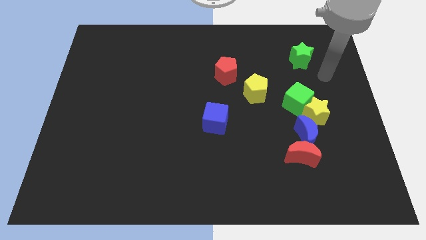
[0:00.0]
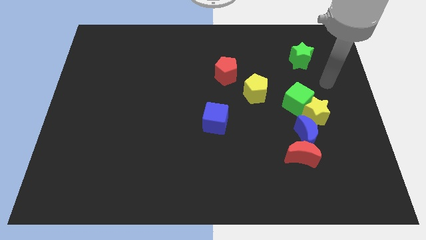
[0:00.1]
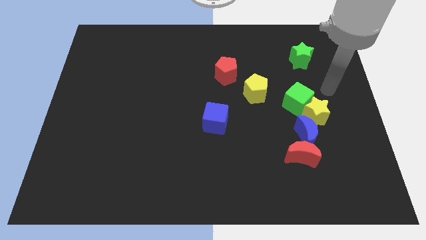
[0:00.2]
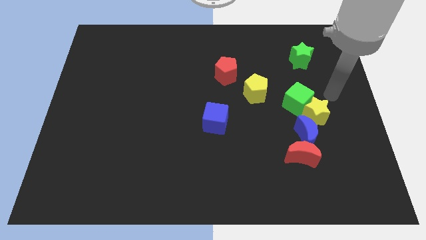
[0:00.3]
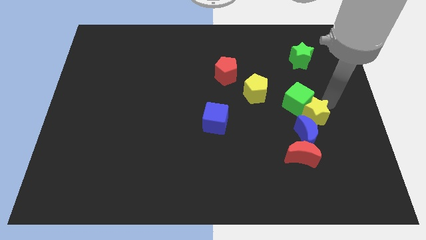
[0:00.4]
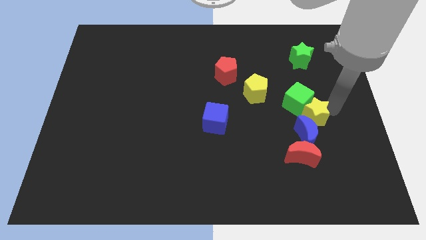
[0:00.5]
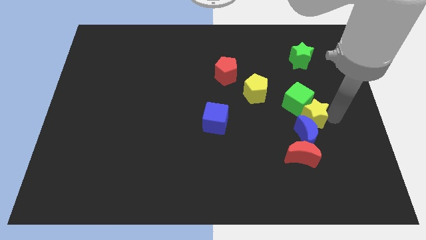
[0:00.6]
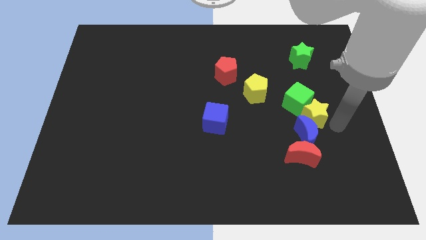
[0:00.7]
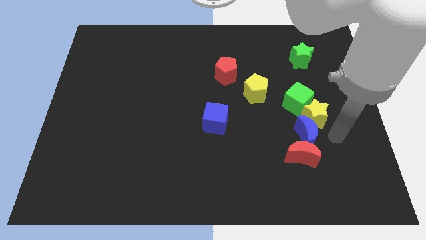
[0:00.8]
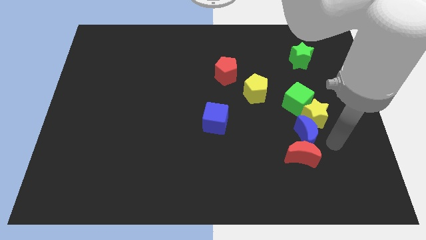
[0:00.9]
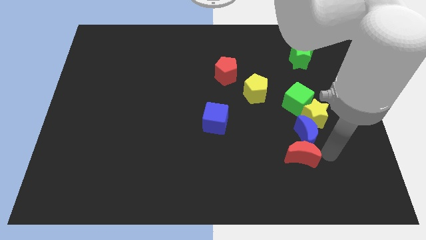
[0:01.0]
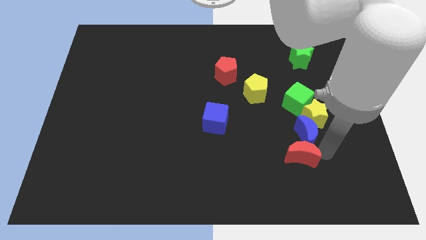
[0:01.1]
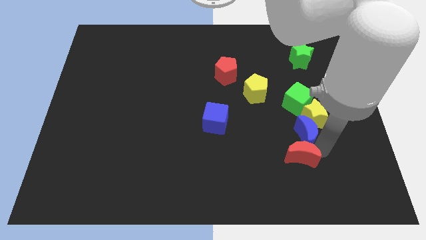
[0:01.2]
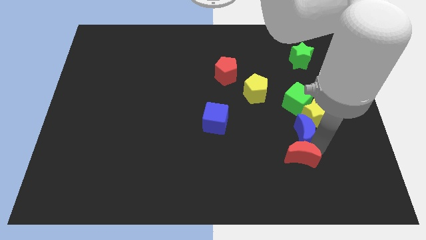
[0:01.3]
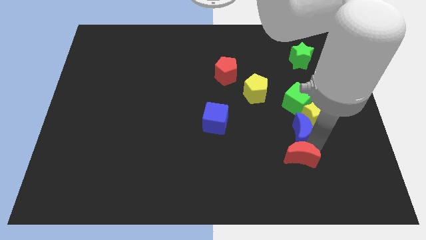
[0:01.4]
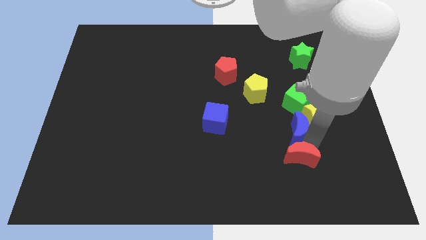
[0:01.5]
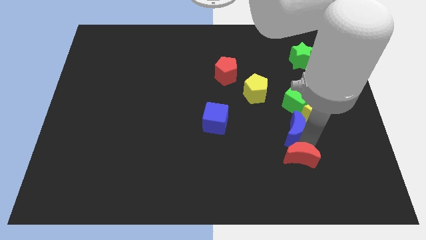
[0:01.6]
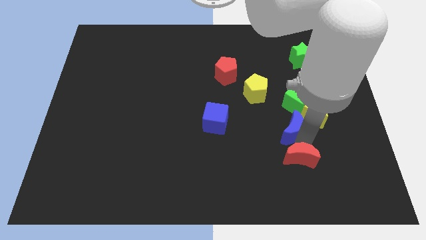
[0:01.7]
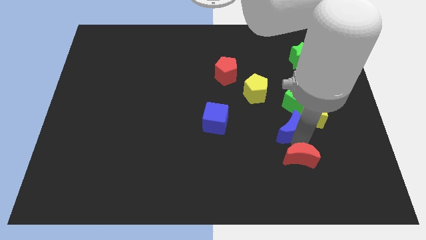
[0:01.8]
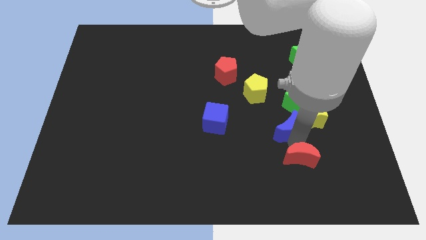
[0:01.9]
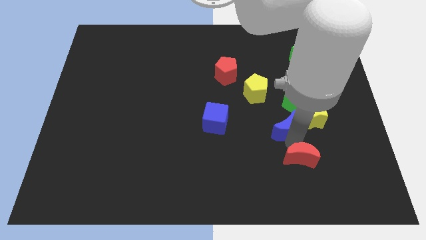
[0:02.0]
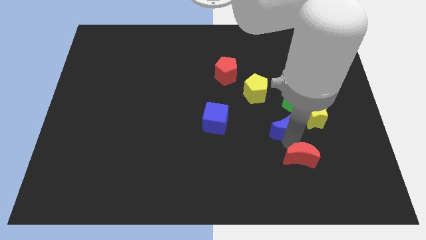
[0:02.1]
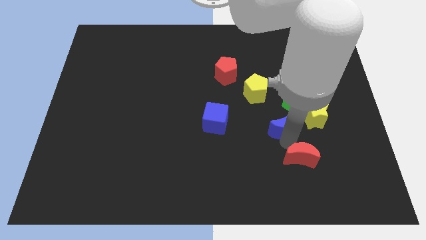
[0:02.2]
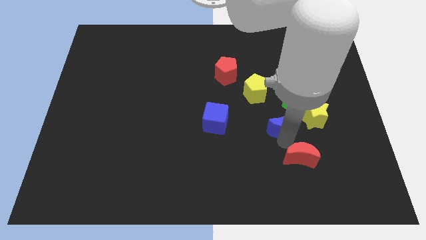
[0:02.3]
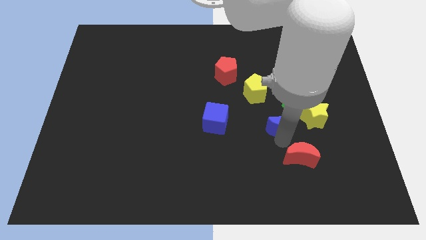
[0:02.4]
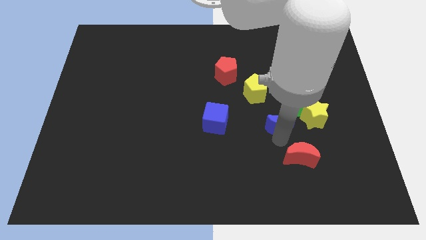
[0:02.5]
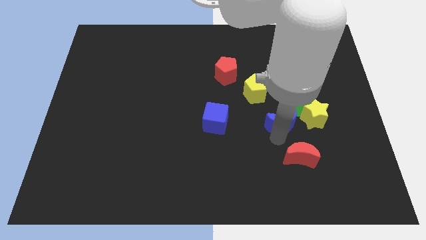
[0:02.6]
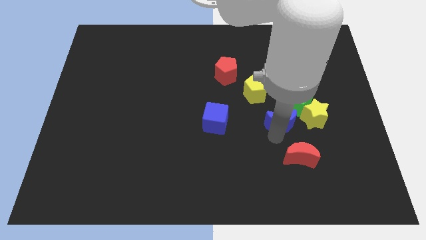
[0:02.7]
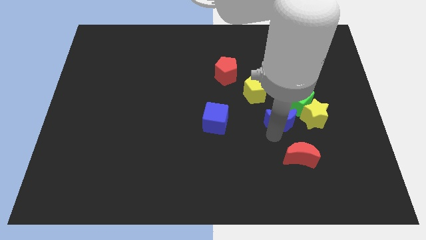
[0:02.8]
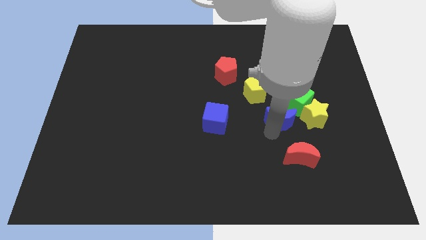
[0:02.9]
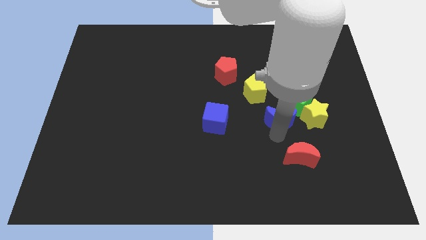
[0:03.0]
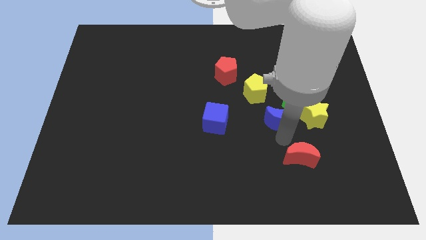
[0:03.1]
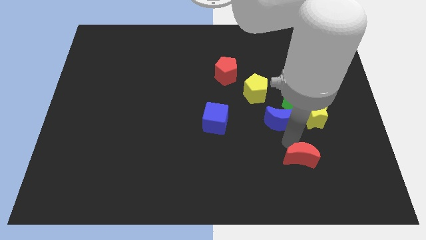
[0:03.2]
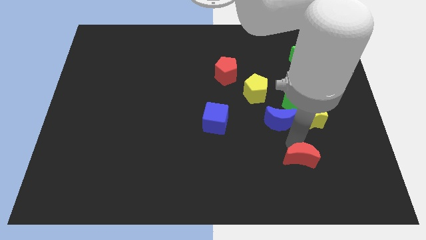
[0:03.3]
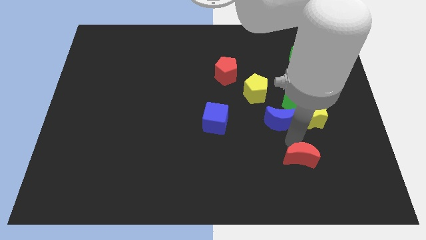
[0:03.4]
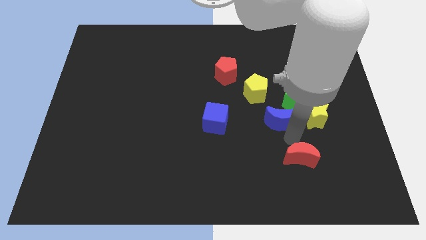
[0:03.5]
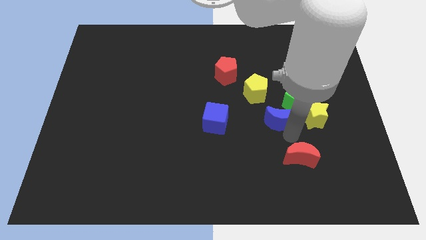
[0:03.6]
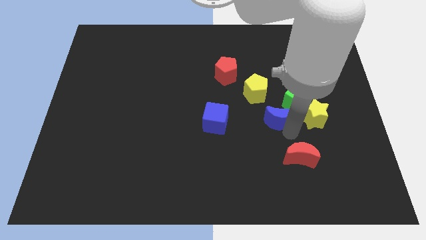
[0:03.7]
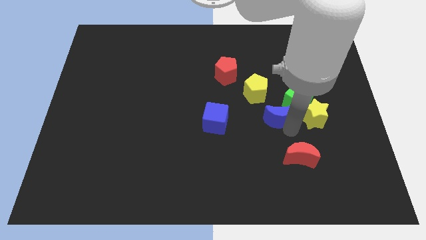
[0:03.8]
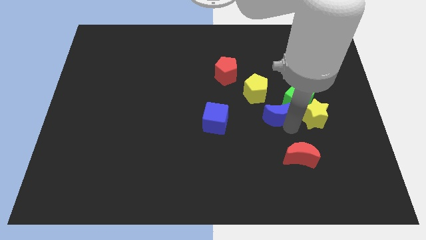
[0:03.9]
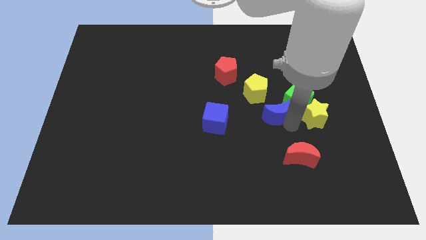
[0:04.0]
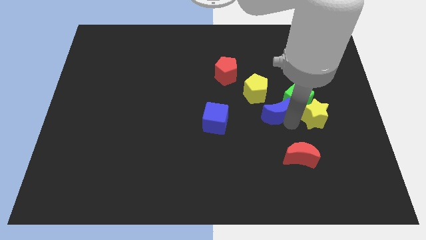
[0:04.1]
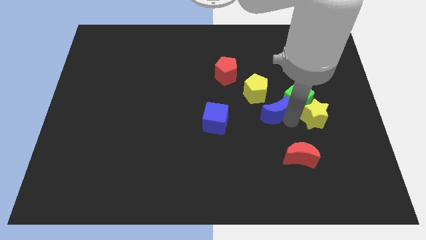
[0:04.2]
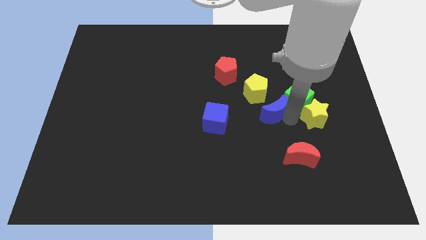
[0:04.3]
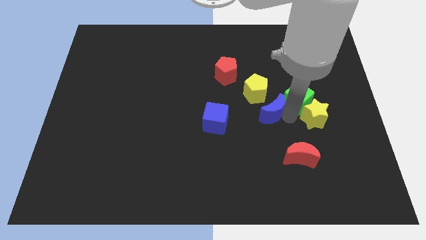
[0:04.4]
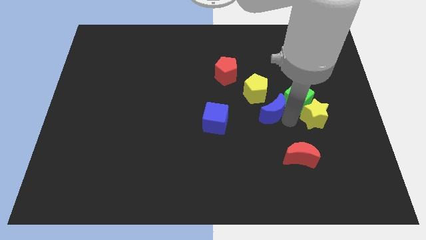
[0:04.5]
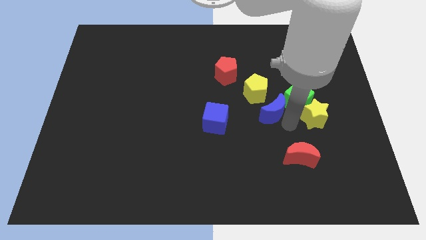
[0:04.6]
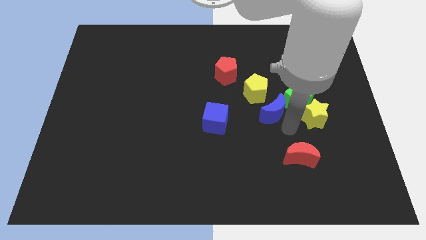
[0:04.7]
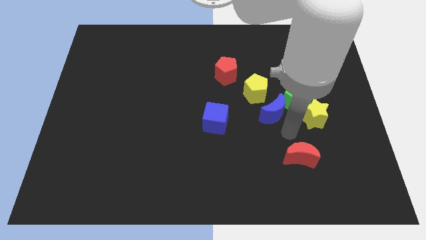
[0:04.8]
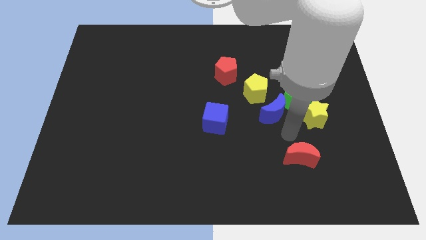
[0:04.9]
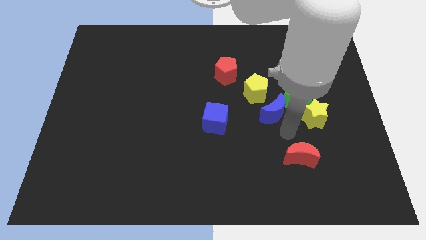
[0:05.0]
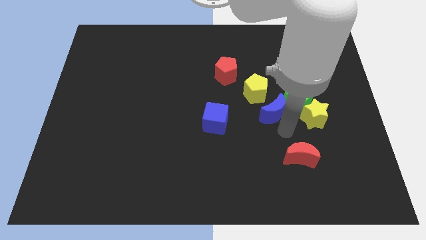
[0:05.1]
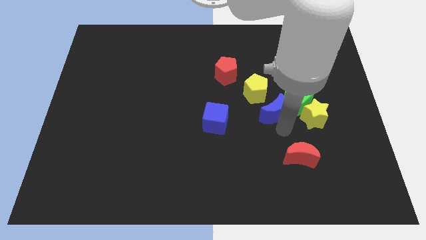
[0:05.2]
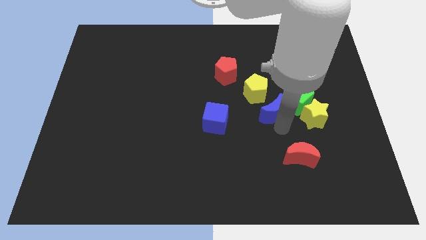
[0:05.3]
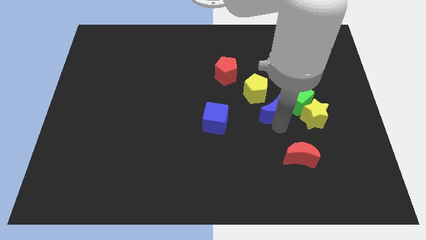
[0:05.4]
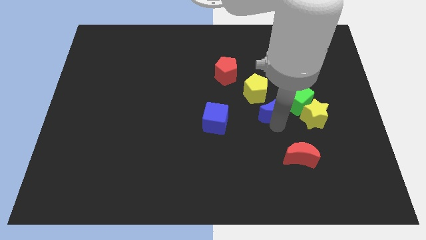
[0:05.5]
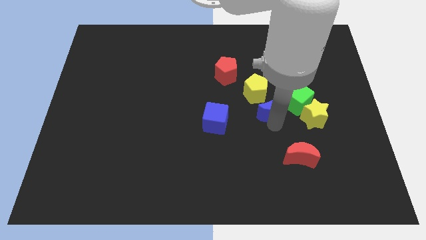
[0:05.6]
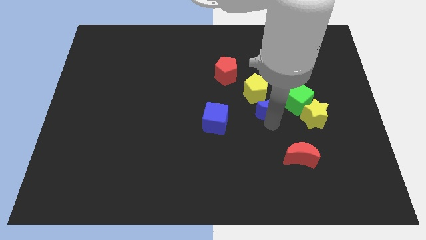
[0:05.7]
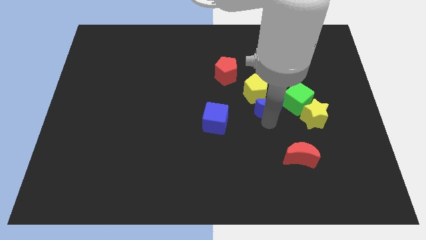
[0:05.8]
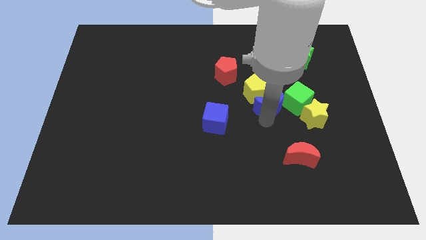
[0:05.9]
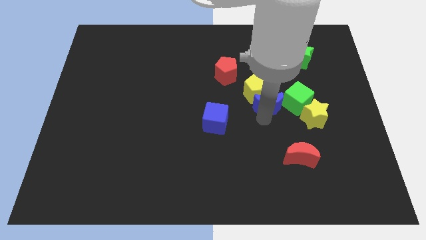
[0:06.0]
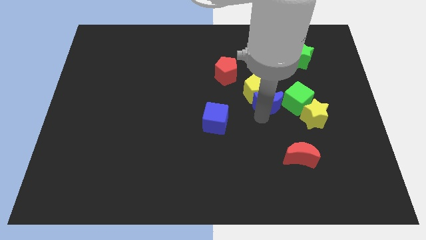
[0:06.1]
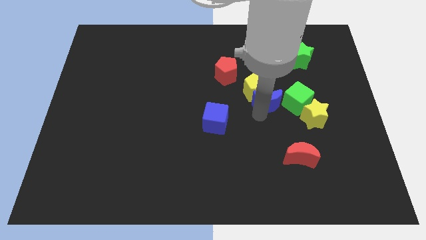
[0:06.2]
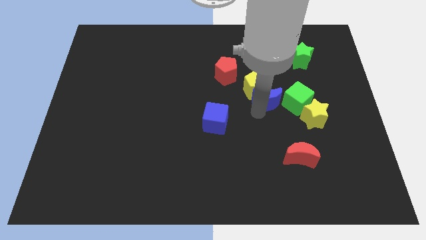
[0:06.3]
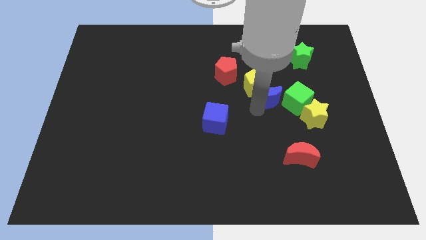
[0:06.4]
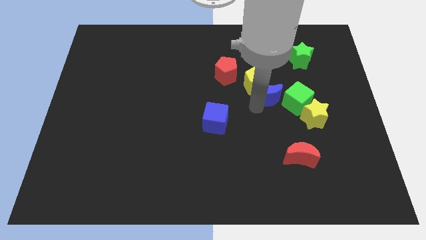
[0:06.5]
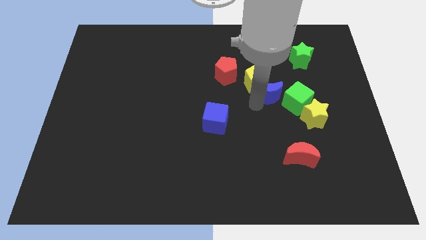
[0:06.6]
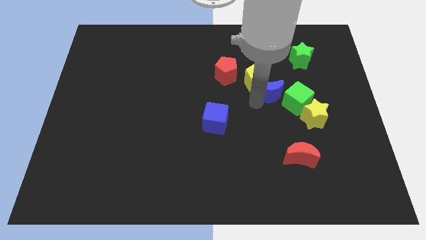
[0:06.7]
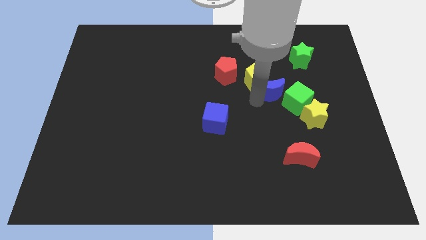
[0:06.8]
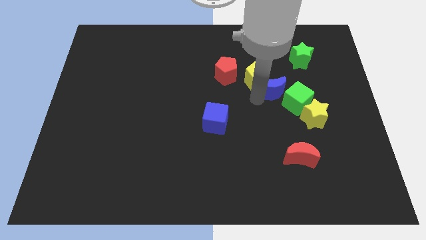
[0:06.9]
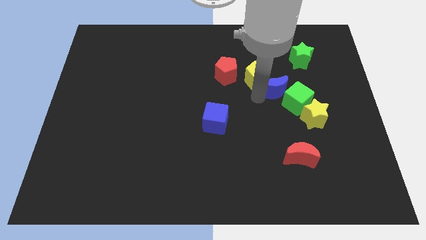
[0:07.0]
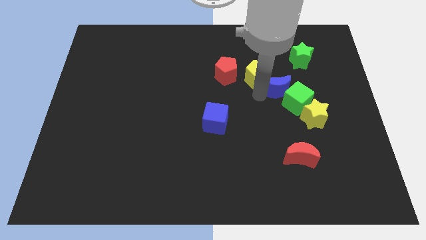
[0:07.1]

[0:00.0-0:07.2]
slide the blue moon diagonally down and to the left of the green star
